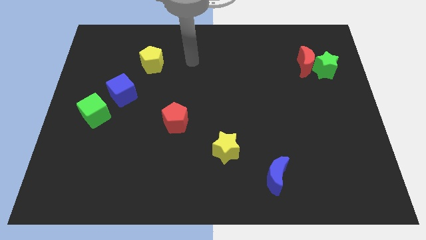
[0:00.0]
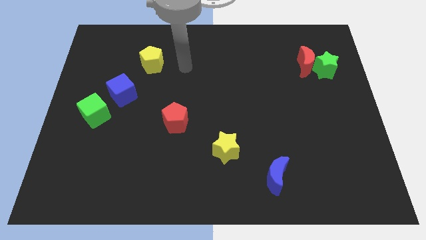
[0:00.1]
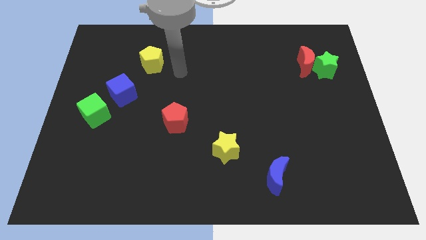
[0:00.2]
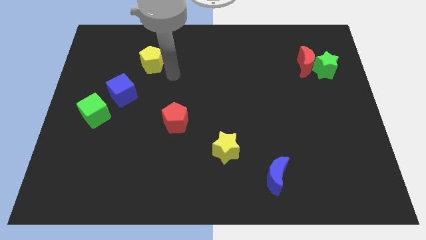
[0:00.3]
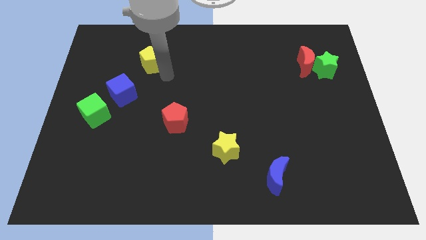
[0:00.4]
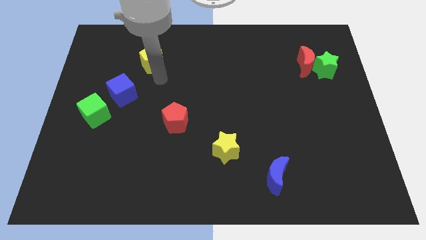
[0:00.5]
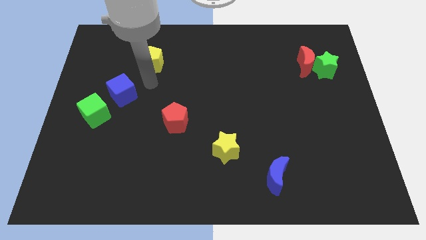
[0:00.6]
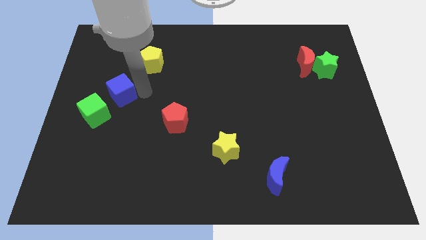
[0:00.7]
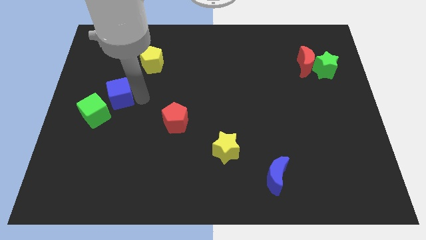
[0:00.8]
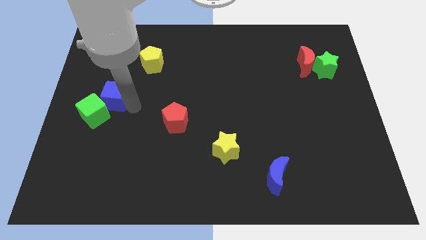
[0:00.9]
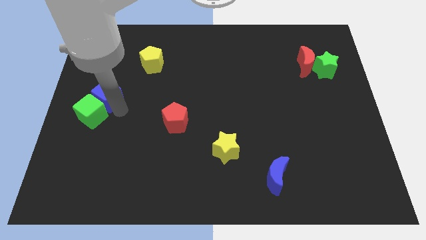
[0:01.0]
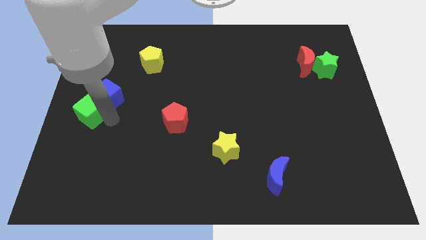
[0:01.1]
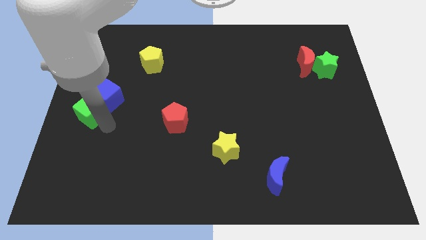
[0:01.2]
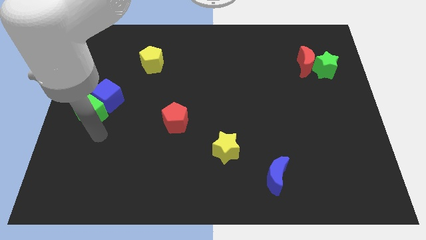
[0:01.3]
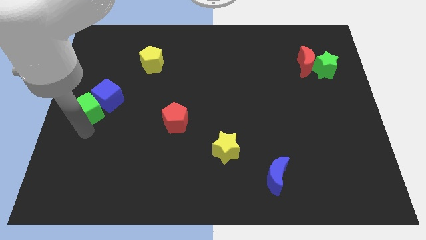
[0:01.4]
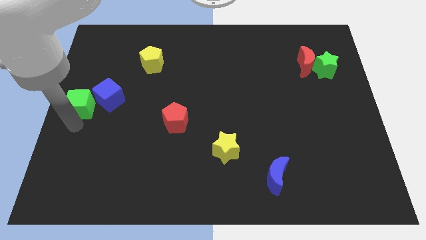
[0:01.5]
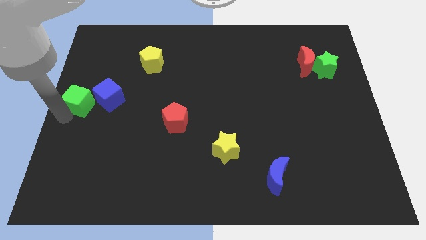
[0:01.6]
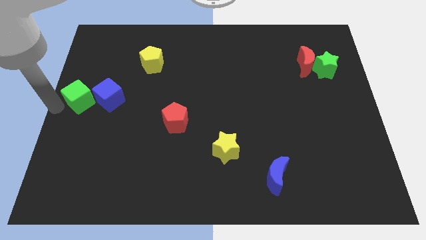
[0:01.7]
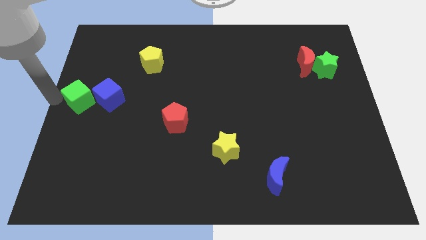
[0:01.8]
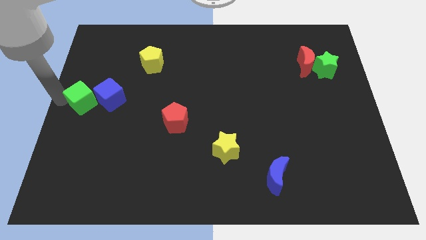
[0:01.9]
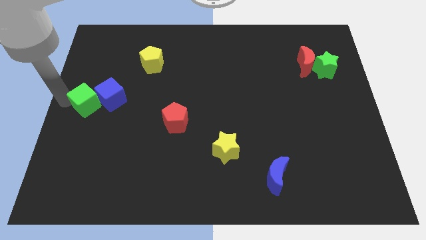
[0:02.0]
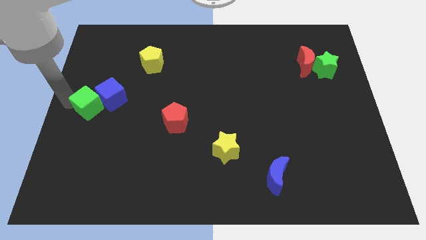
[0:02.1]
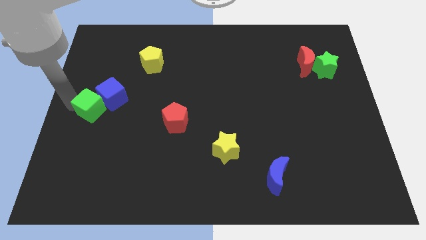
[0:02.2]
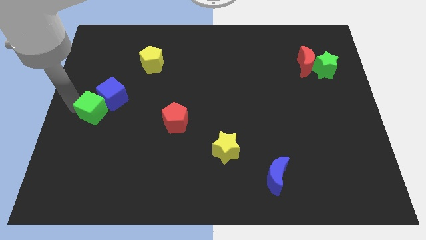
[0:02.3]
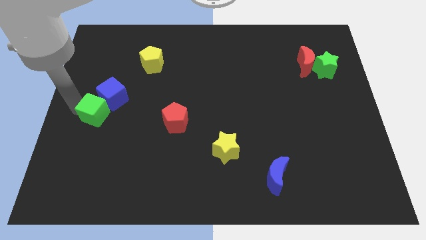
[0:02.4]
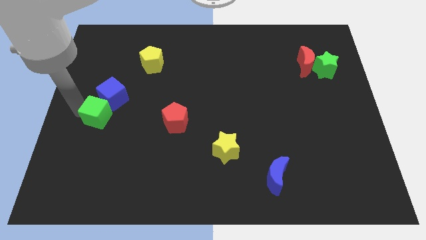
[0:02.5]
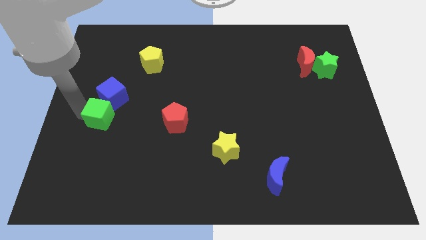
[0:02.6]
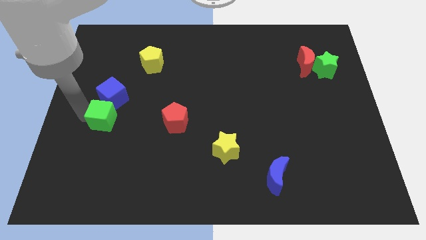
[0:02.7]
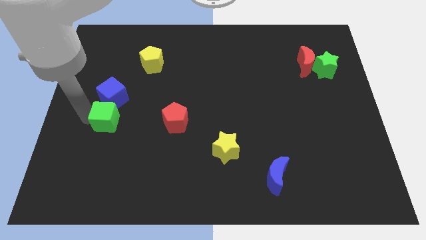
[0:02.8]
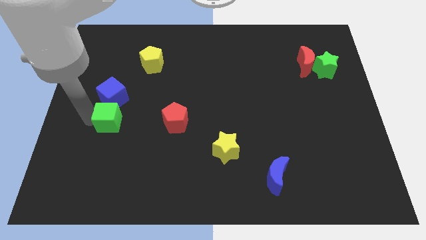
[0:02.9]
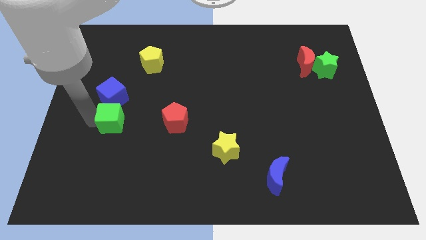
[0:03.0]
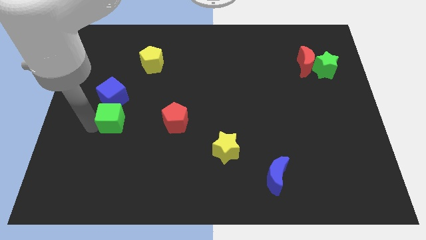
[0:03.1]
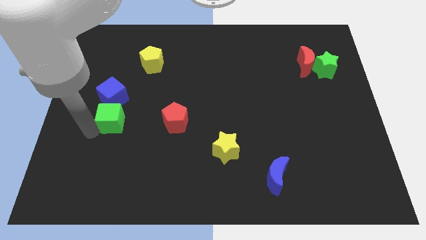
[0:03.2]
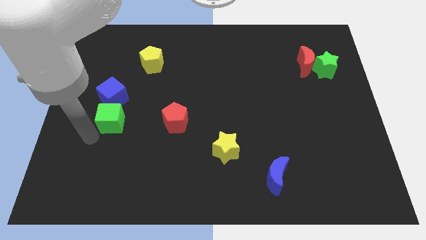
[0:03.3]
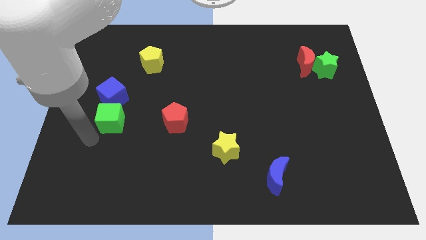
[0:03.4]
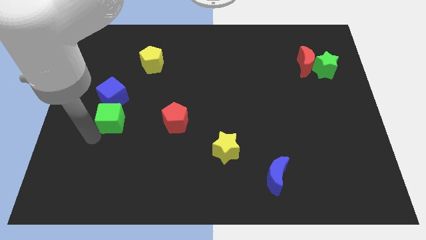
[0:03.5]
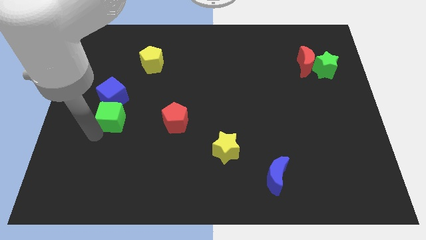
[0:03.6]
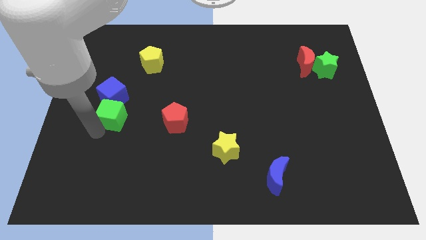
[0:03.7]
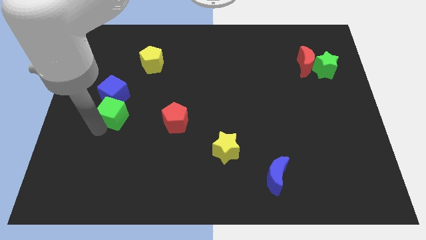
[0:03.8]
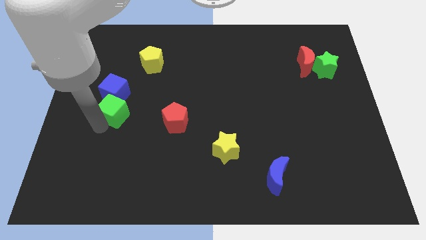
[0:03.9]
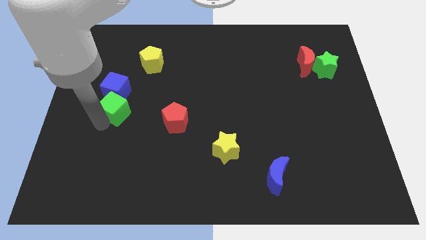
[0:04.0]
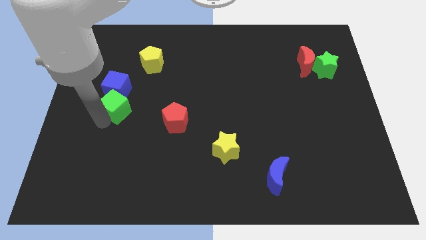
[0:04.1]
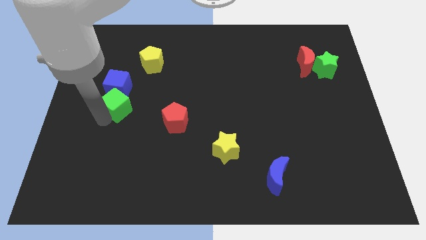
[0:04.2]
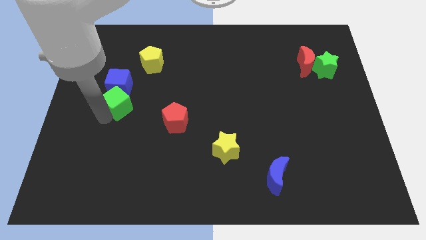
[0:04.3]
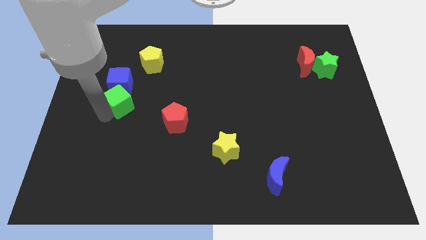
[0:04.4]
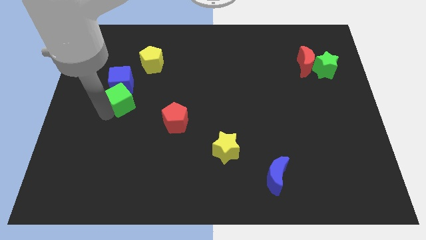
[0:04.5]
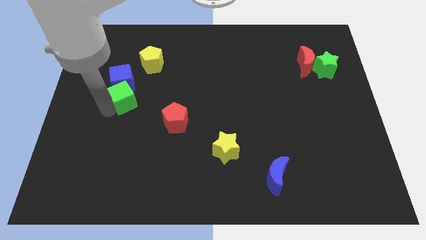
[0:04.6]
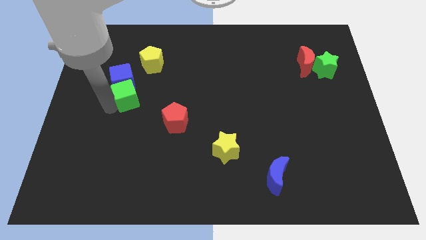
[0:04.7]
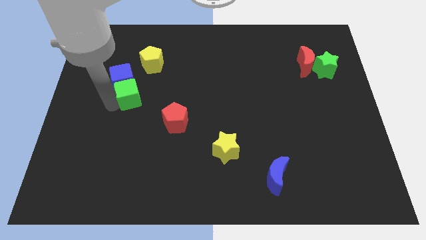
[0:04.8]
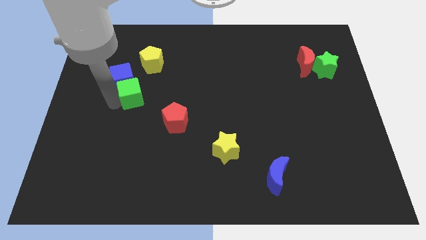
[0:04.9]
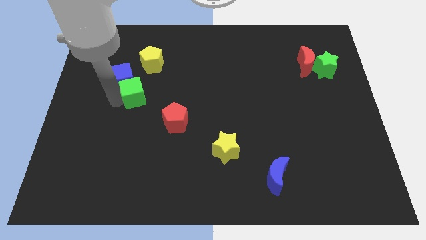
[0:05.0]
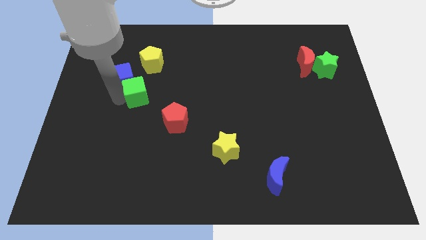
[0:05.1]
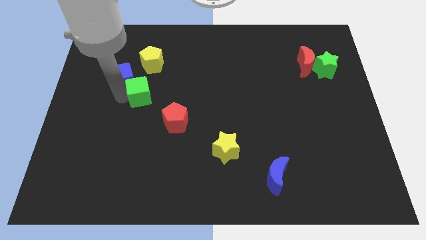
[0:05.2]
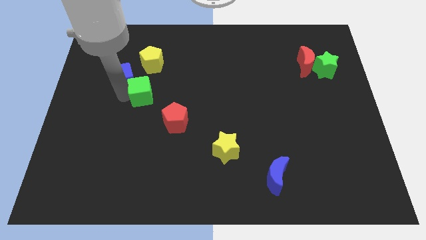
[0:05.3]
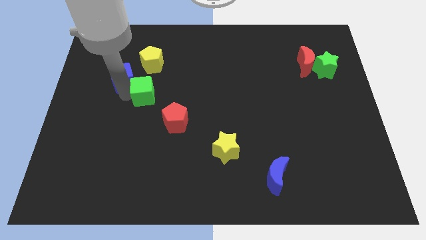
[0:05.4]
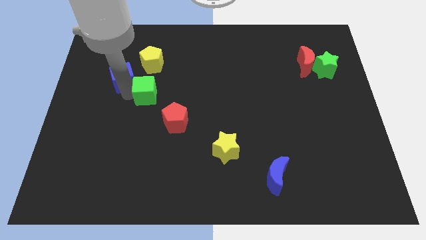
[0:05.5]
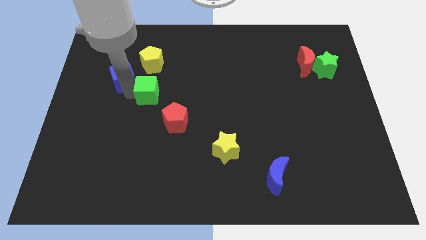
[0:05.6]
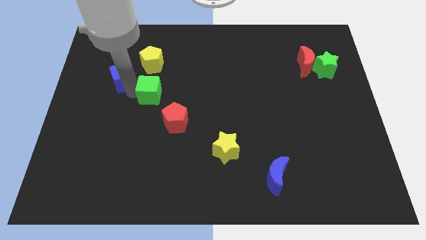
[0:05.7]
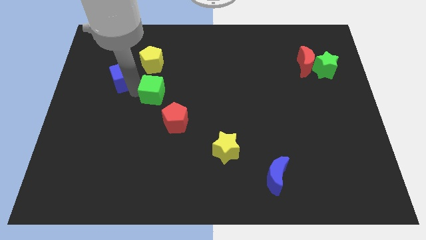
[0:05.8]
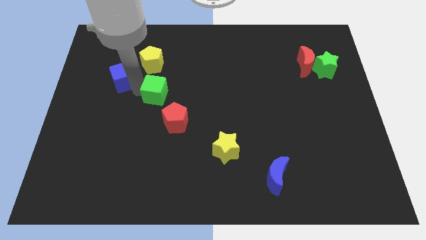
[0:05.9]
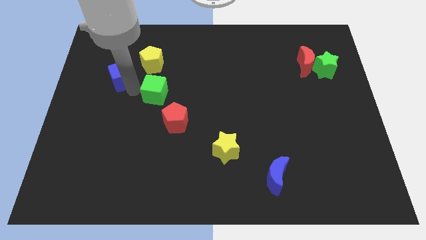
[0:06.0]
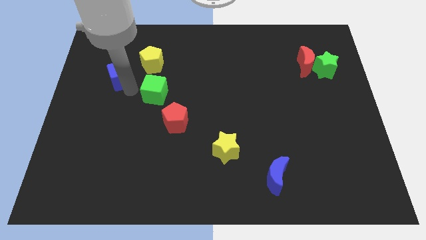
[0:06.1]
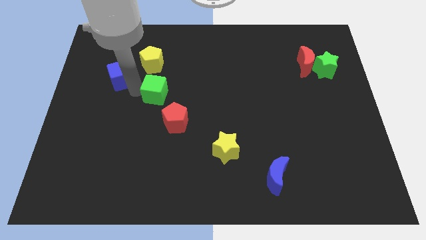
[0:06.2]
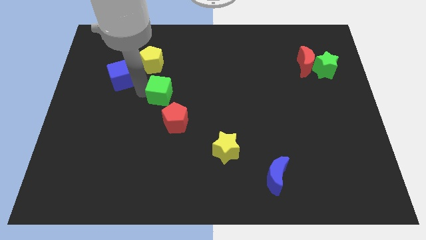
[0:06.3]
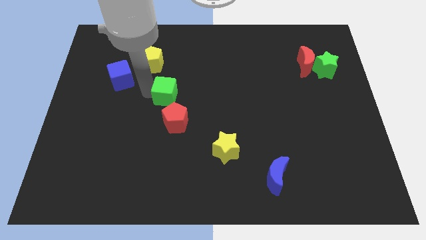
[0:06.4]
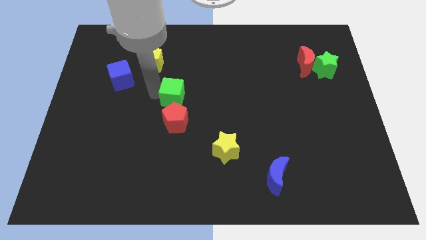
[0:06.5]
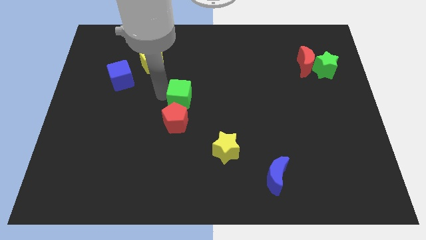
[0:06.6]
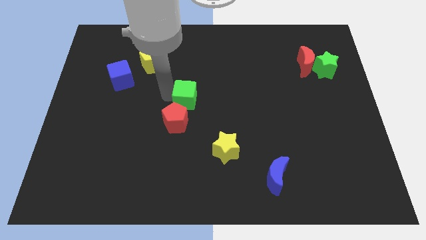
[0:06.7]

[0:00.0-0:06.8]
push the green cube to the right

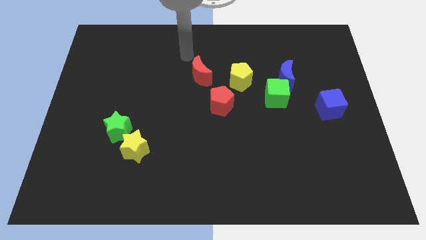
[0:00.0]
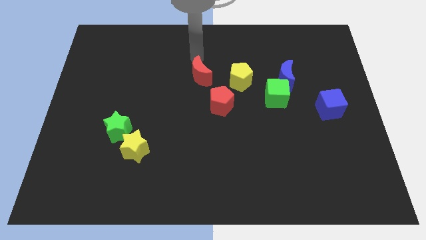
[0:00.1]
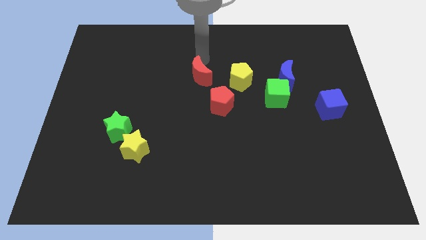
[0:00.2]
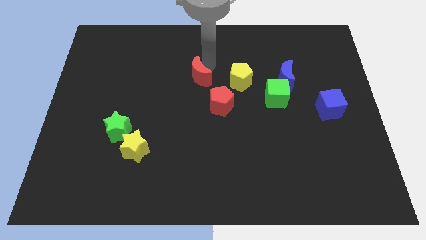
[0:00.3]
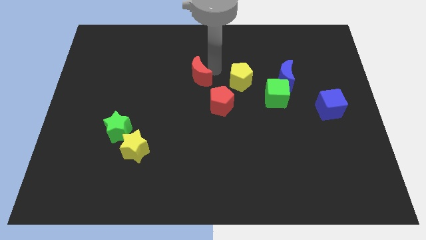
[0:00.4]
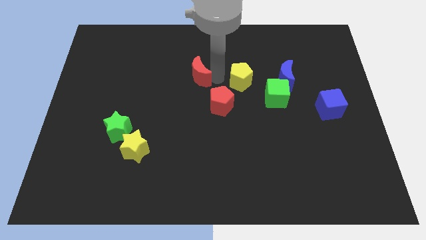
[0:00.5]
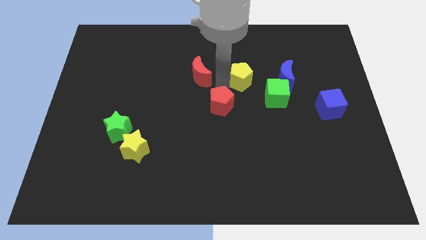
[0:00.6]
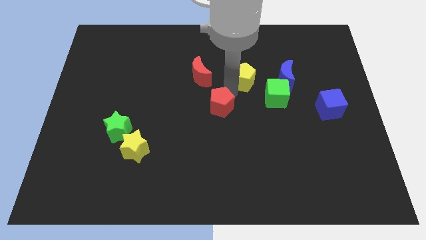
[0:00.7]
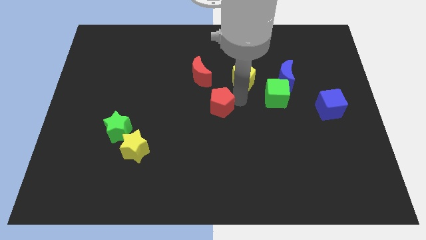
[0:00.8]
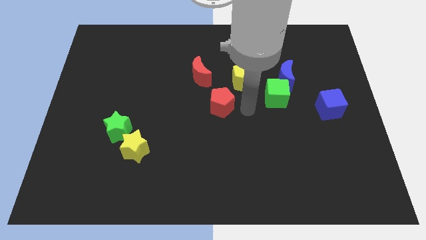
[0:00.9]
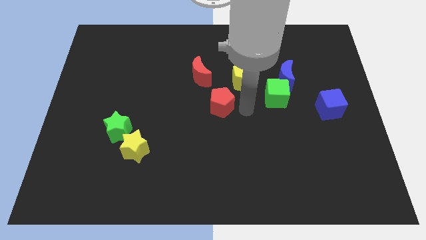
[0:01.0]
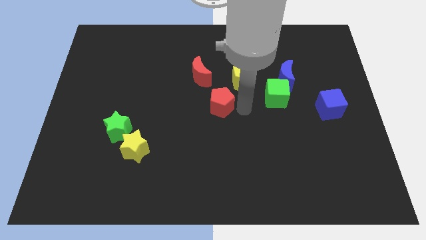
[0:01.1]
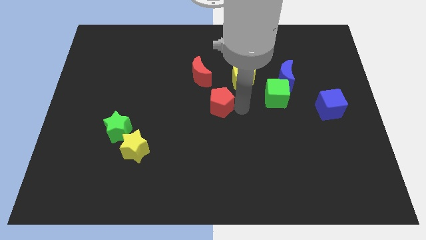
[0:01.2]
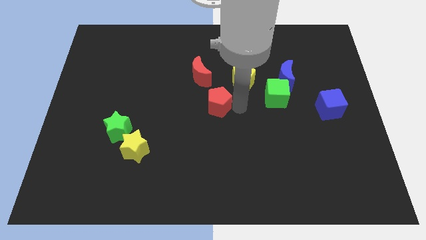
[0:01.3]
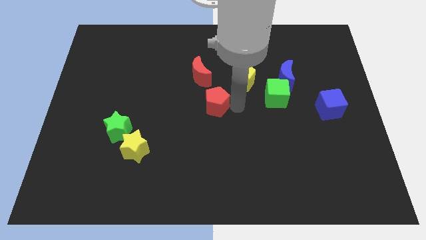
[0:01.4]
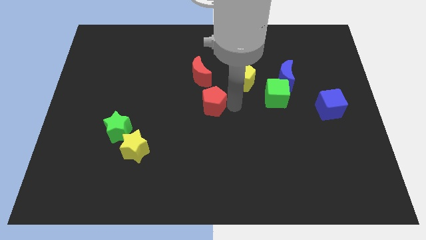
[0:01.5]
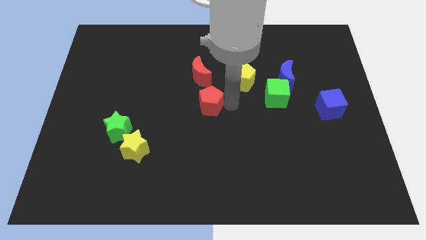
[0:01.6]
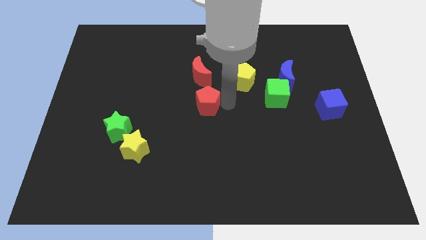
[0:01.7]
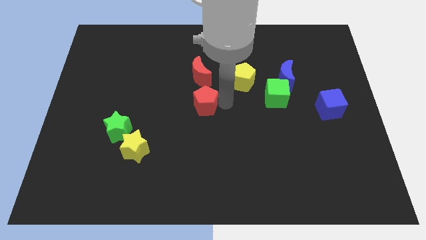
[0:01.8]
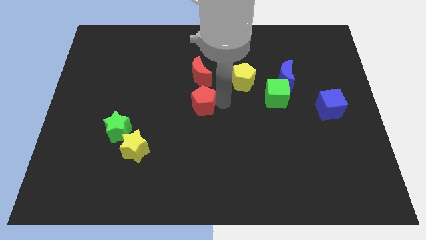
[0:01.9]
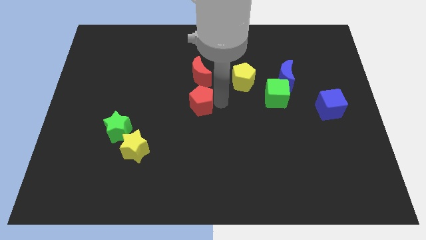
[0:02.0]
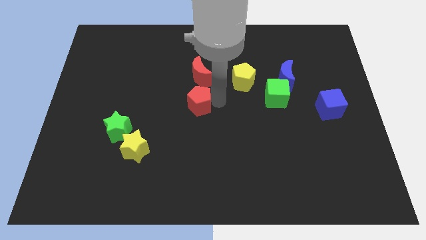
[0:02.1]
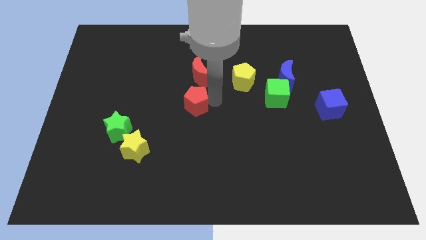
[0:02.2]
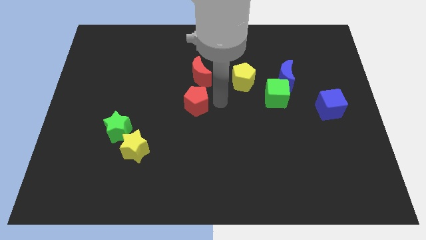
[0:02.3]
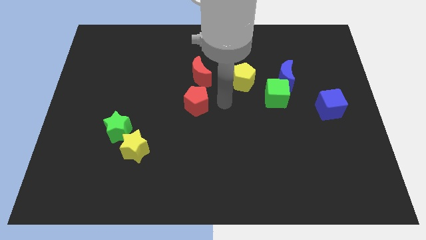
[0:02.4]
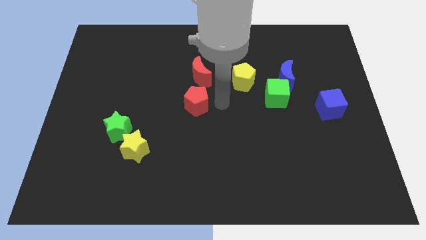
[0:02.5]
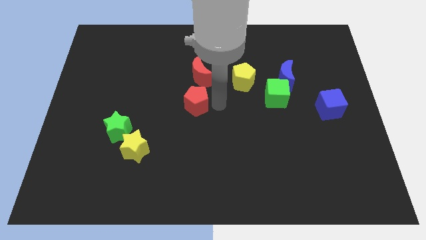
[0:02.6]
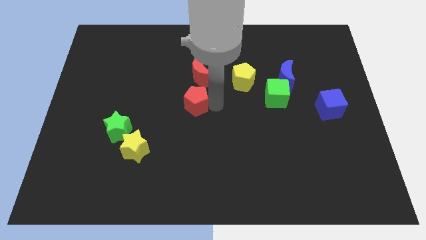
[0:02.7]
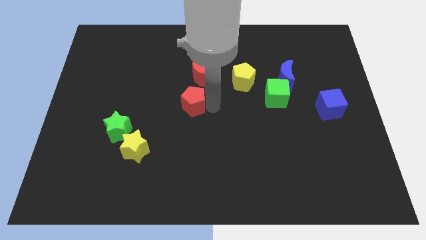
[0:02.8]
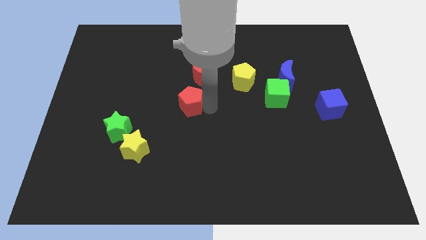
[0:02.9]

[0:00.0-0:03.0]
push the red pentagon left somewhat
